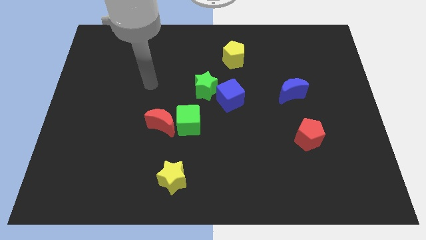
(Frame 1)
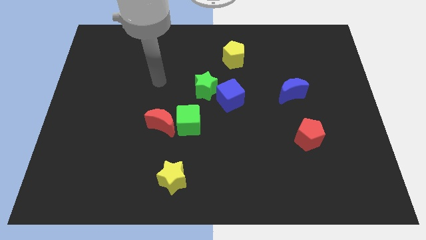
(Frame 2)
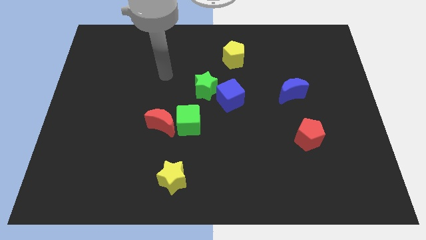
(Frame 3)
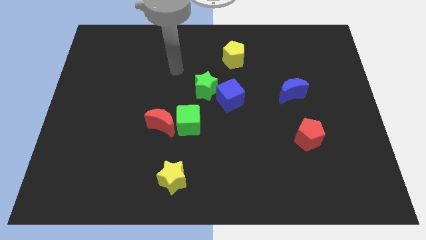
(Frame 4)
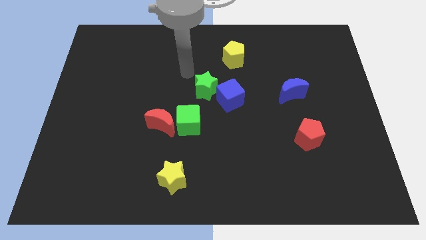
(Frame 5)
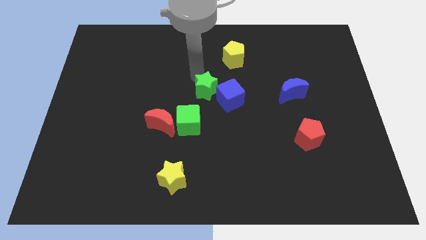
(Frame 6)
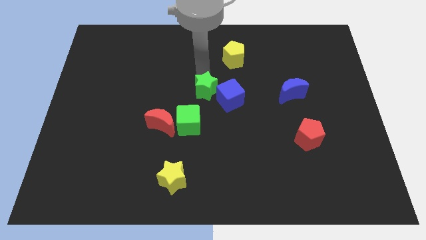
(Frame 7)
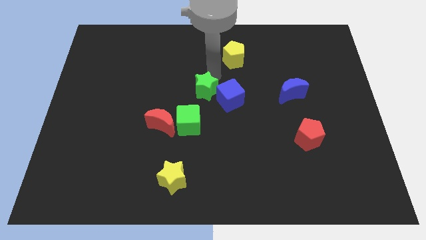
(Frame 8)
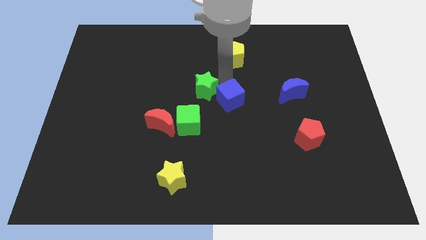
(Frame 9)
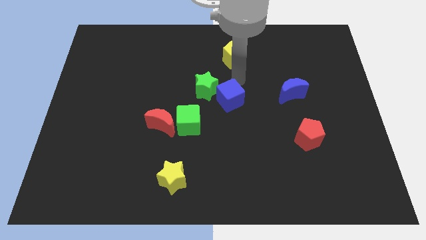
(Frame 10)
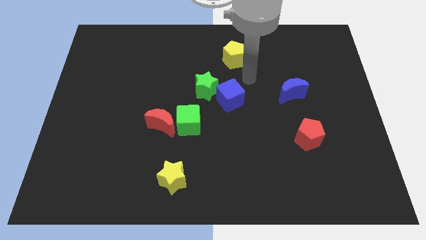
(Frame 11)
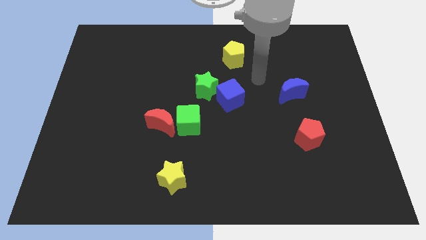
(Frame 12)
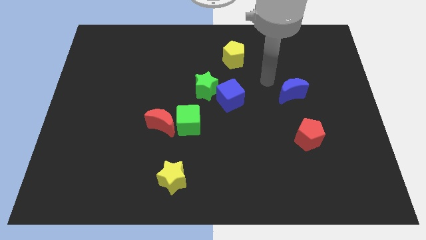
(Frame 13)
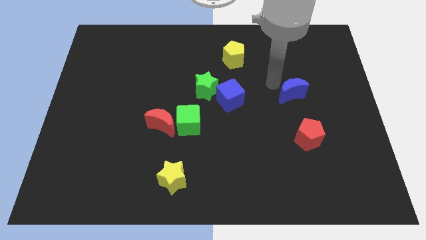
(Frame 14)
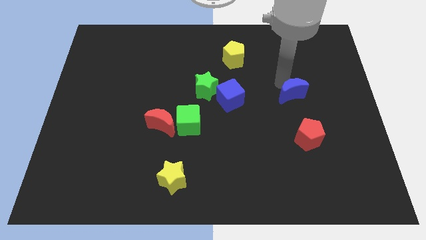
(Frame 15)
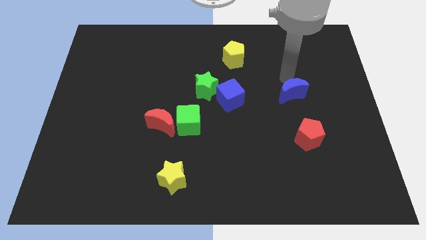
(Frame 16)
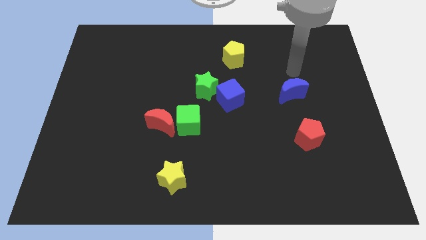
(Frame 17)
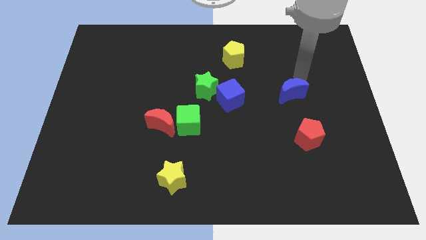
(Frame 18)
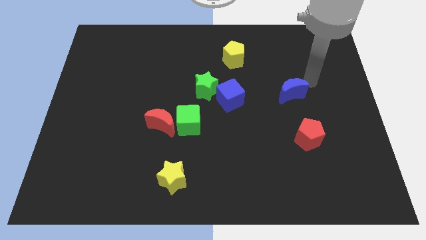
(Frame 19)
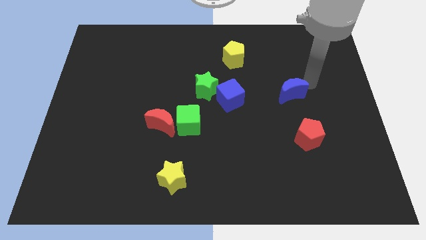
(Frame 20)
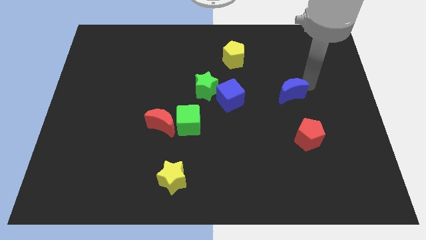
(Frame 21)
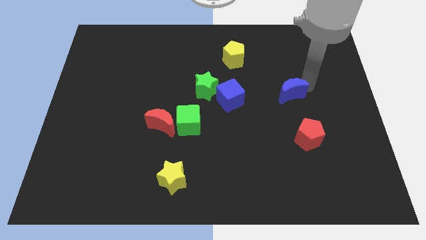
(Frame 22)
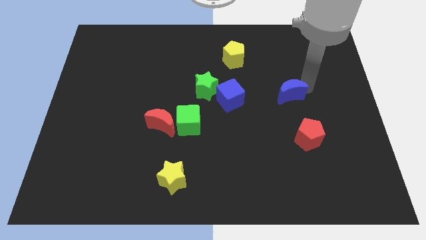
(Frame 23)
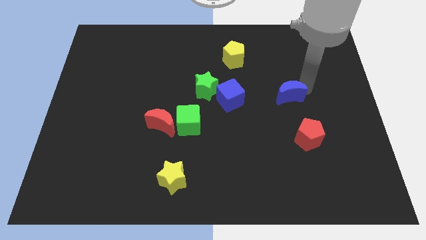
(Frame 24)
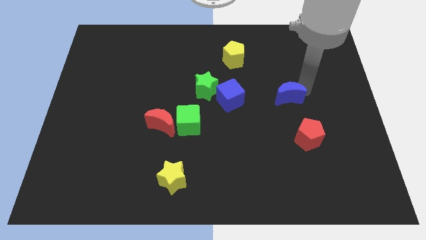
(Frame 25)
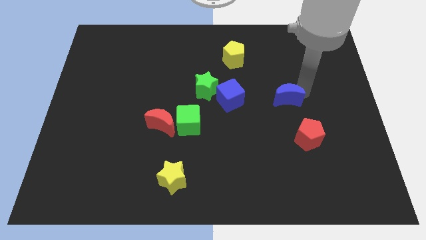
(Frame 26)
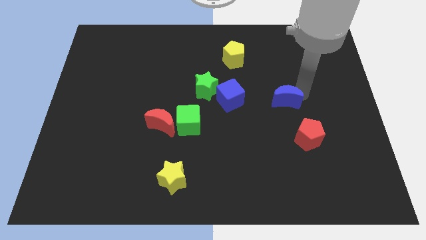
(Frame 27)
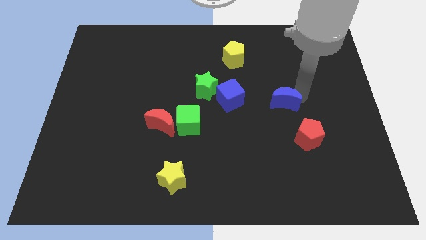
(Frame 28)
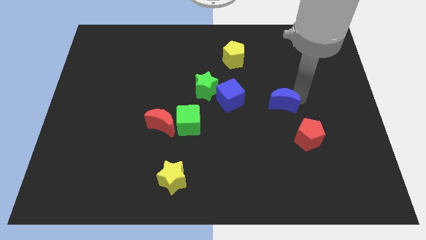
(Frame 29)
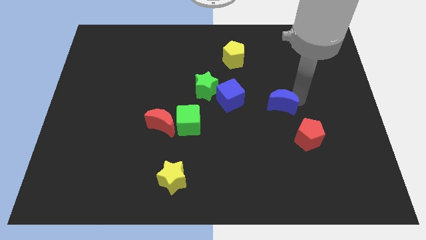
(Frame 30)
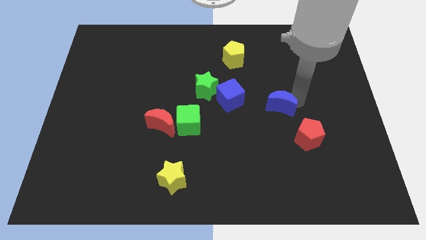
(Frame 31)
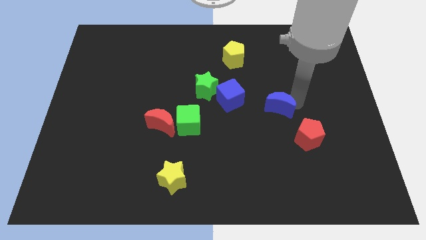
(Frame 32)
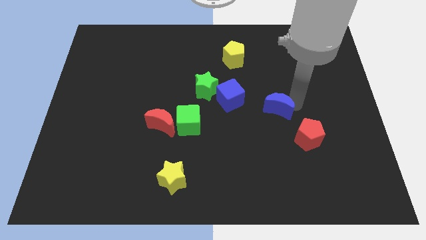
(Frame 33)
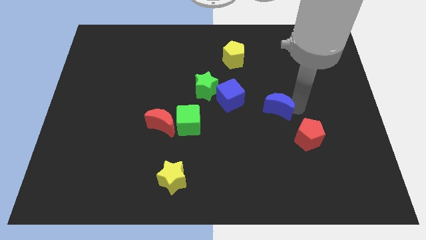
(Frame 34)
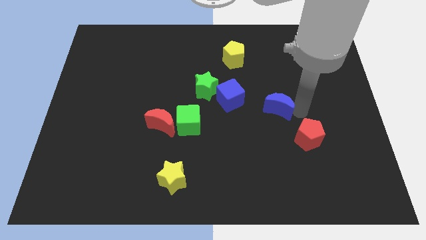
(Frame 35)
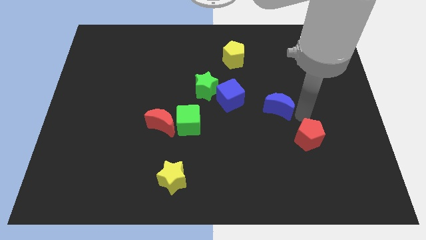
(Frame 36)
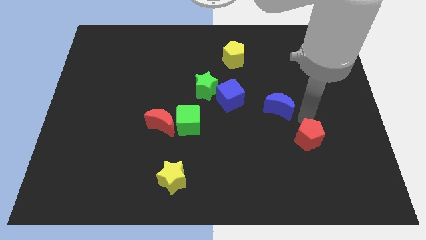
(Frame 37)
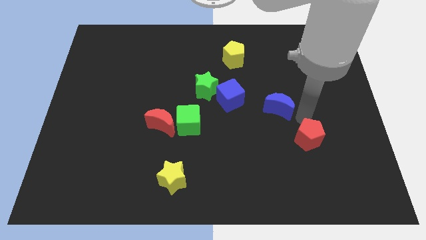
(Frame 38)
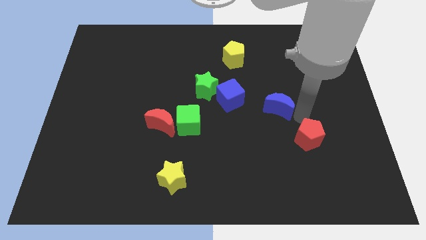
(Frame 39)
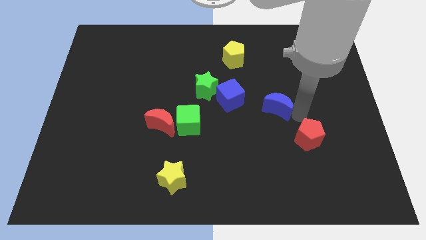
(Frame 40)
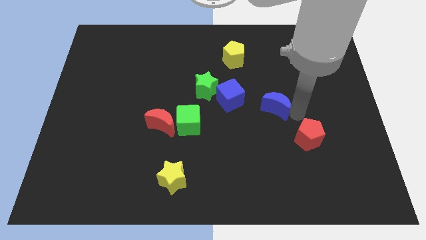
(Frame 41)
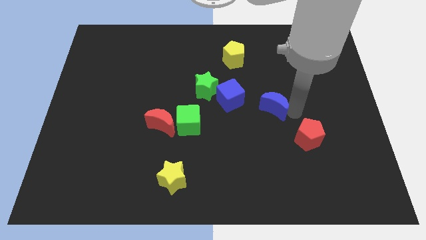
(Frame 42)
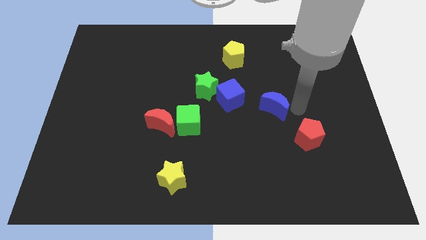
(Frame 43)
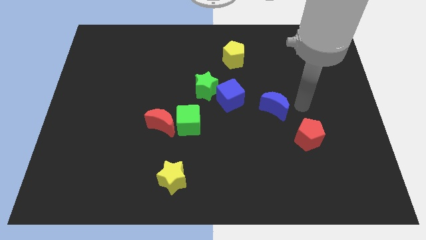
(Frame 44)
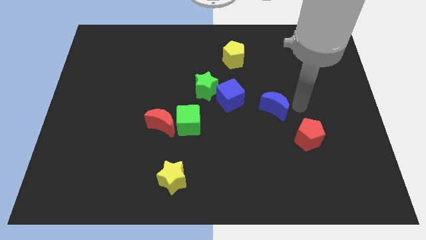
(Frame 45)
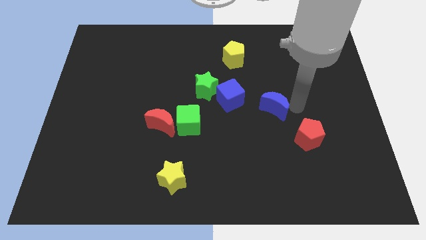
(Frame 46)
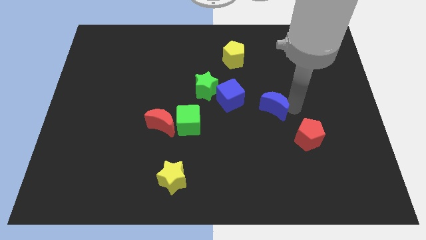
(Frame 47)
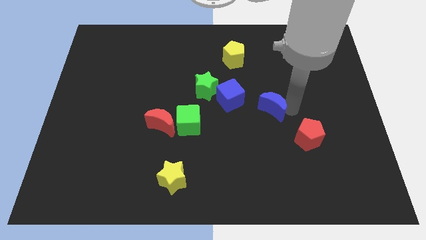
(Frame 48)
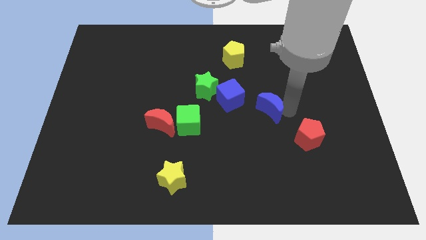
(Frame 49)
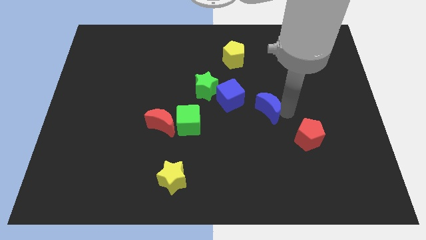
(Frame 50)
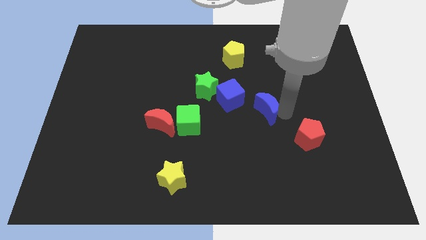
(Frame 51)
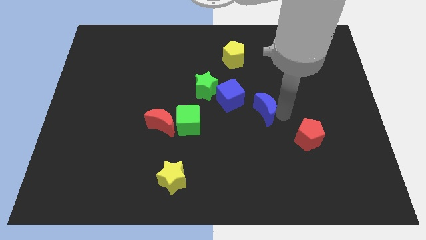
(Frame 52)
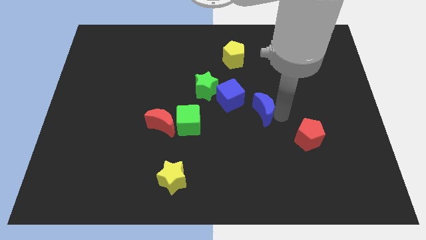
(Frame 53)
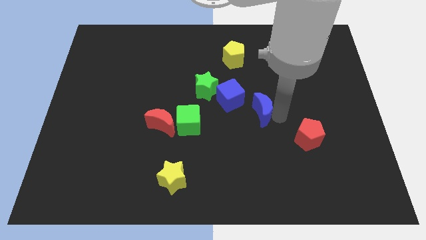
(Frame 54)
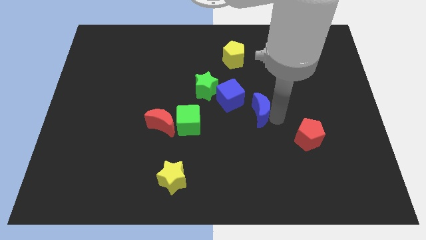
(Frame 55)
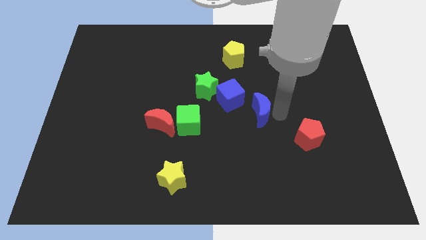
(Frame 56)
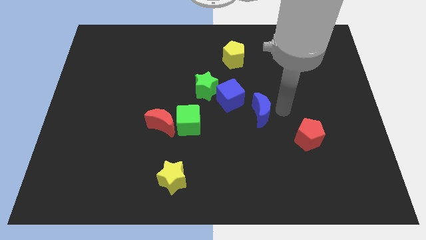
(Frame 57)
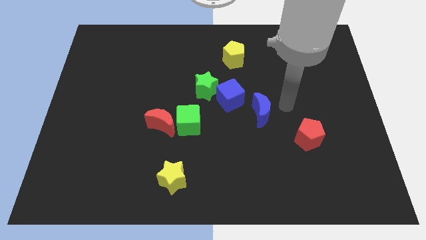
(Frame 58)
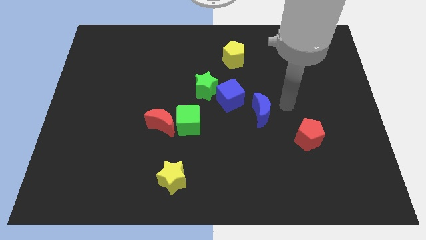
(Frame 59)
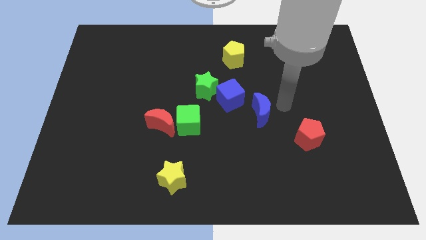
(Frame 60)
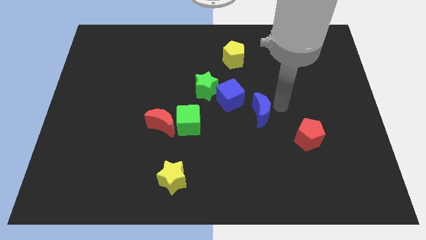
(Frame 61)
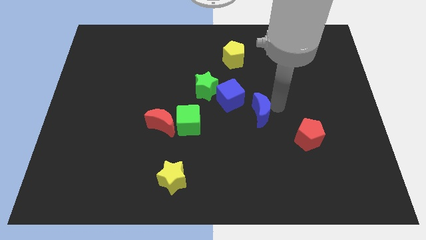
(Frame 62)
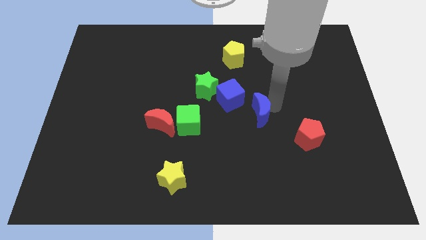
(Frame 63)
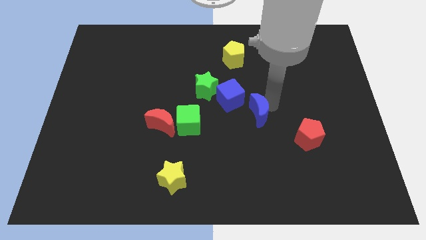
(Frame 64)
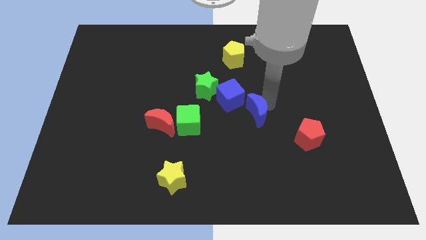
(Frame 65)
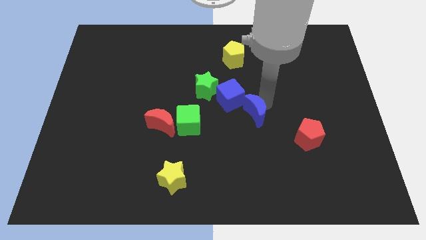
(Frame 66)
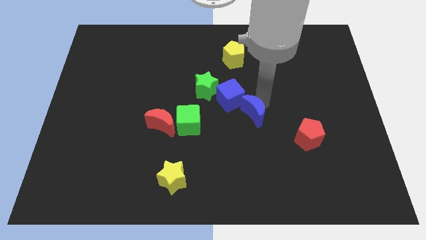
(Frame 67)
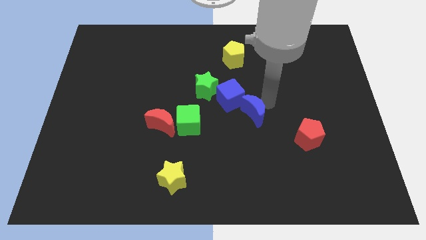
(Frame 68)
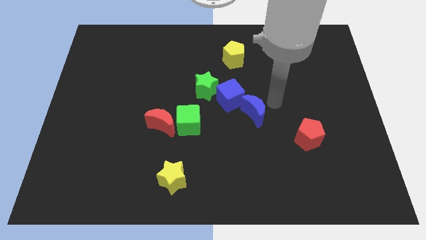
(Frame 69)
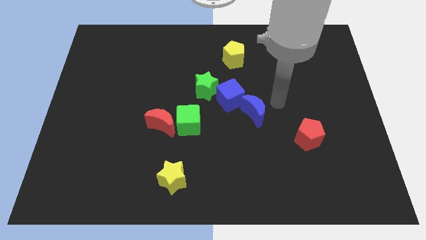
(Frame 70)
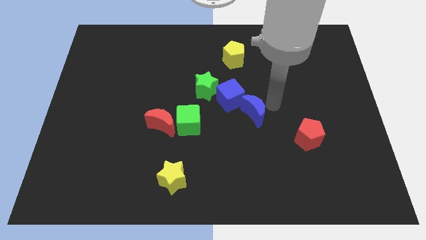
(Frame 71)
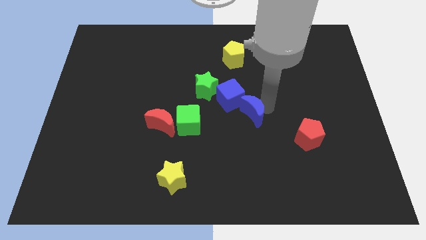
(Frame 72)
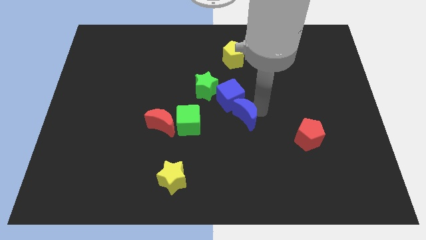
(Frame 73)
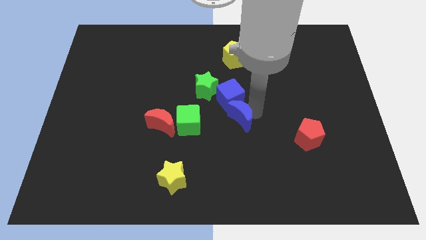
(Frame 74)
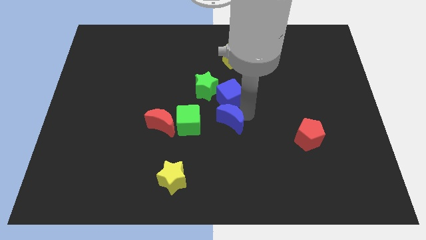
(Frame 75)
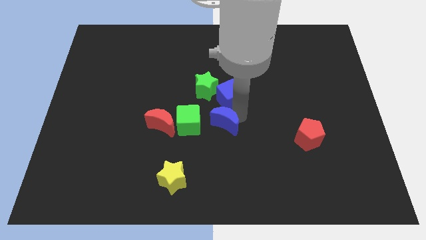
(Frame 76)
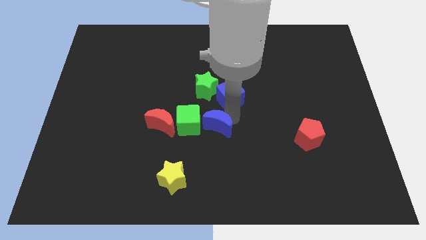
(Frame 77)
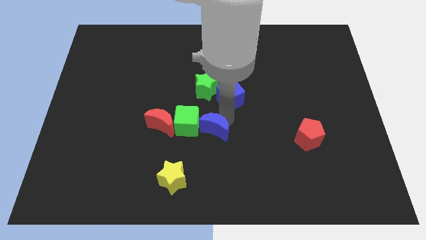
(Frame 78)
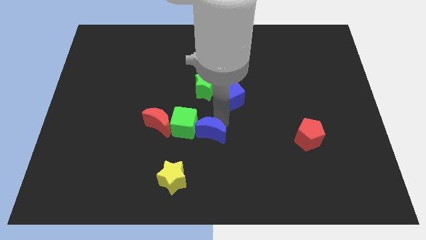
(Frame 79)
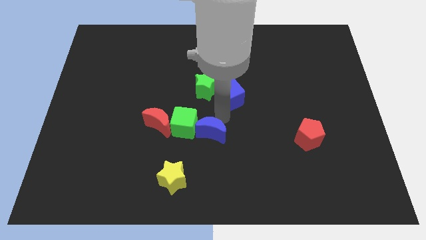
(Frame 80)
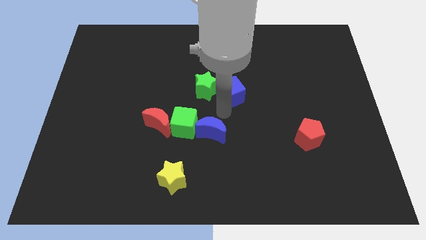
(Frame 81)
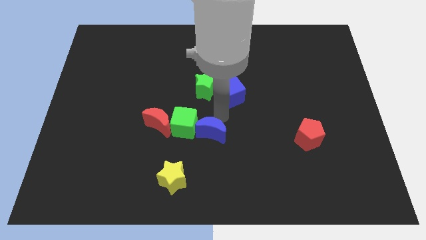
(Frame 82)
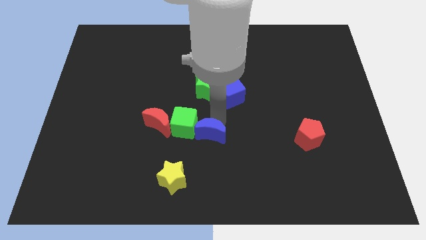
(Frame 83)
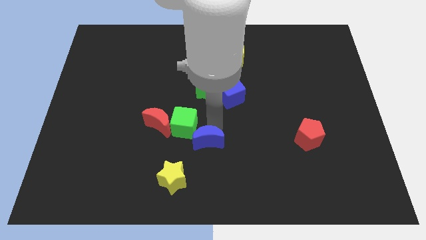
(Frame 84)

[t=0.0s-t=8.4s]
move the blue moon to the top right side of the yellow star
